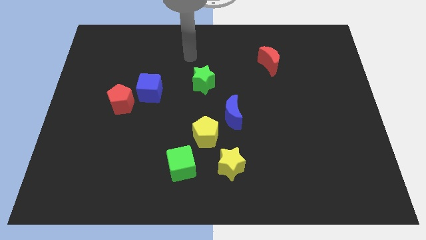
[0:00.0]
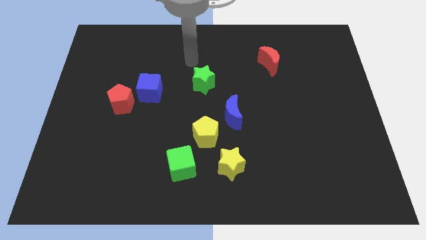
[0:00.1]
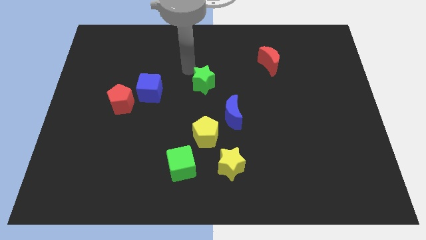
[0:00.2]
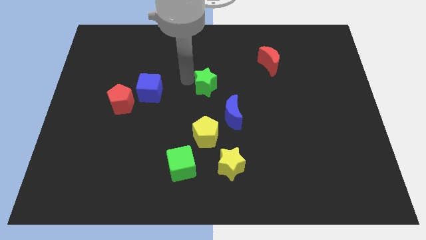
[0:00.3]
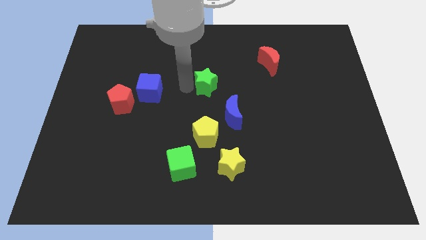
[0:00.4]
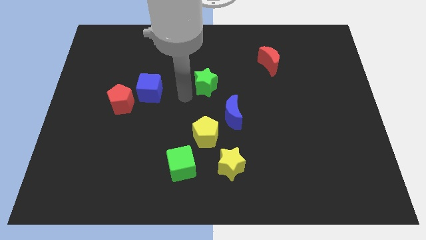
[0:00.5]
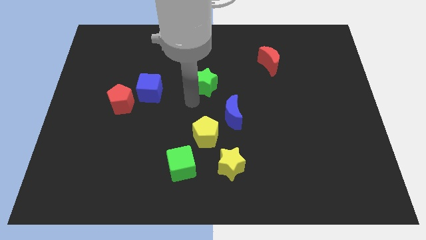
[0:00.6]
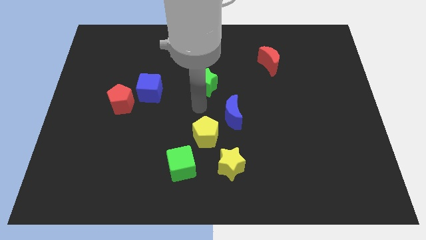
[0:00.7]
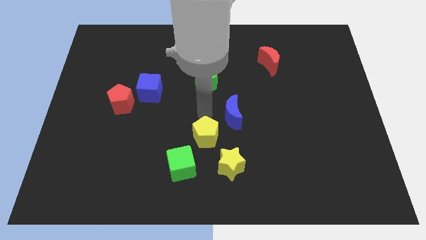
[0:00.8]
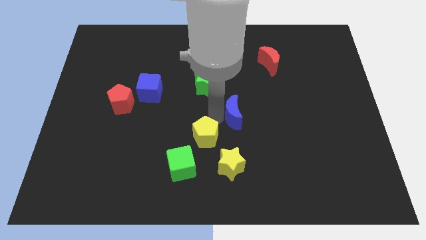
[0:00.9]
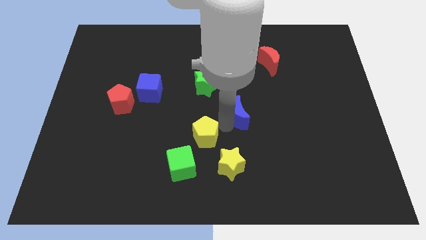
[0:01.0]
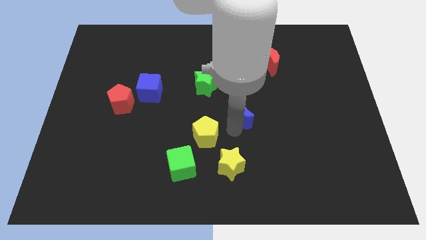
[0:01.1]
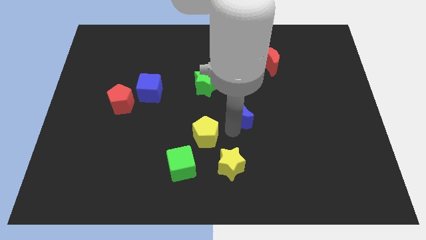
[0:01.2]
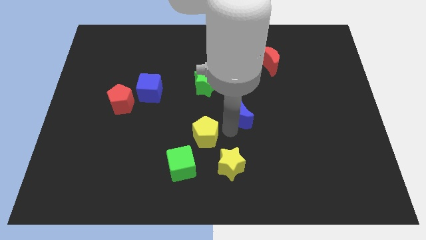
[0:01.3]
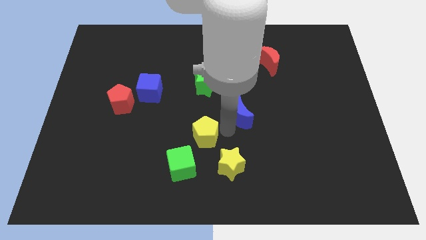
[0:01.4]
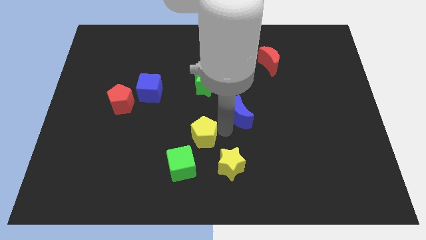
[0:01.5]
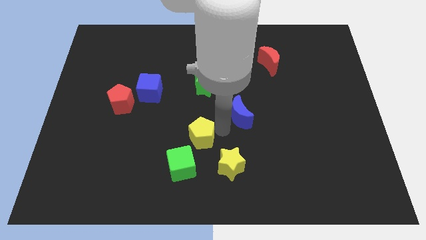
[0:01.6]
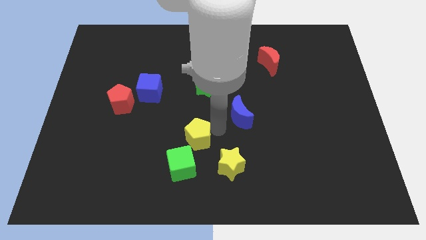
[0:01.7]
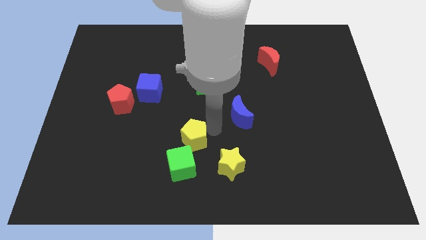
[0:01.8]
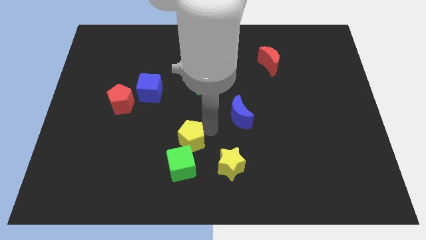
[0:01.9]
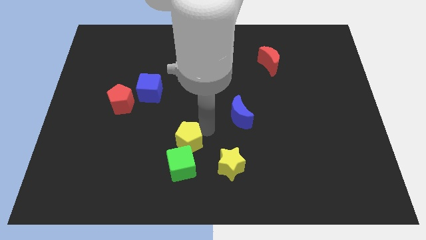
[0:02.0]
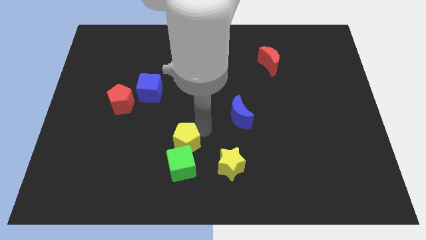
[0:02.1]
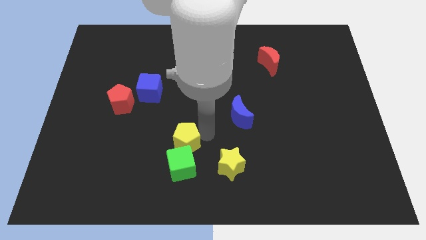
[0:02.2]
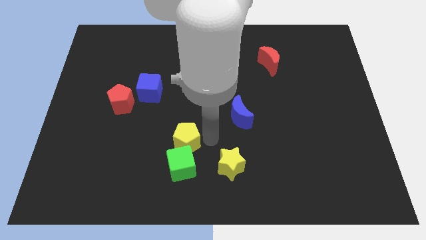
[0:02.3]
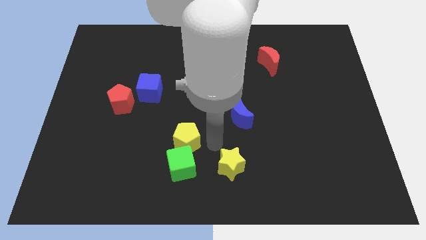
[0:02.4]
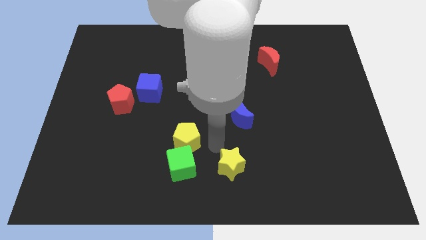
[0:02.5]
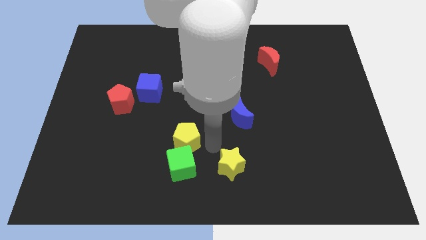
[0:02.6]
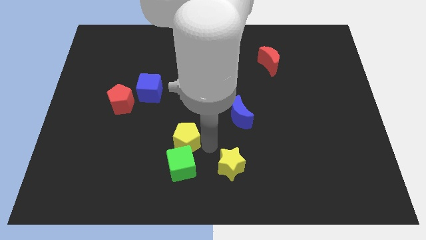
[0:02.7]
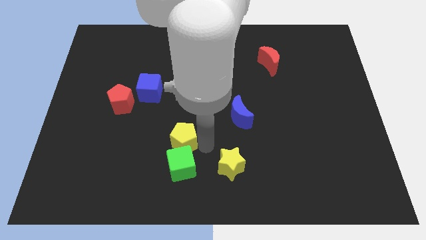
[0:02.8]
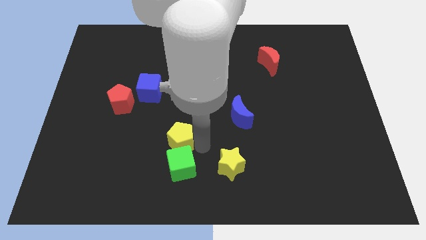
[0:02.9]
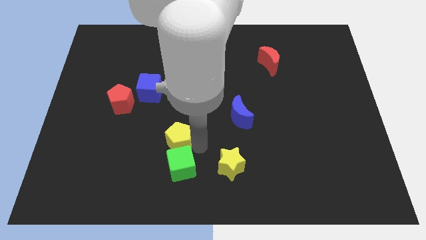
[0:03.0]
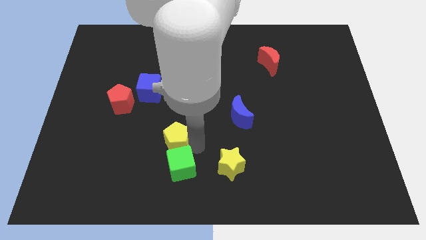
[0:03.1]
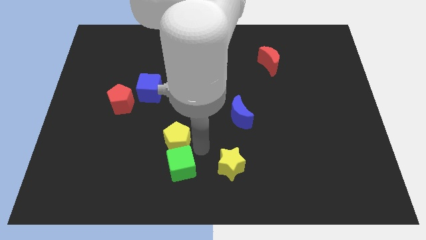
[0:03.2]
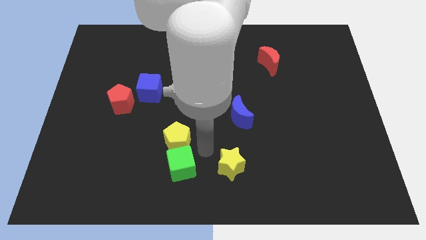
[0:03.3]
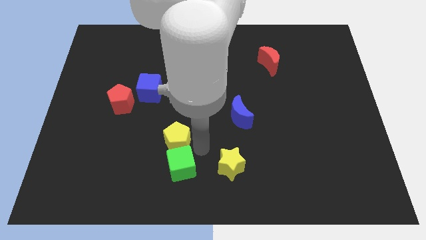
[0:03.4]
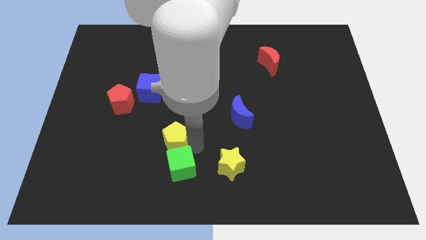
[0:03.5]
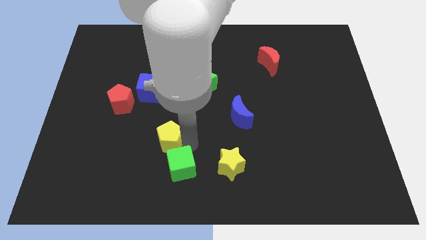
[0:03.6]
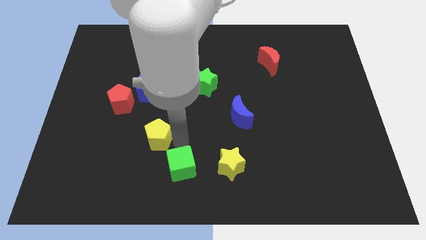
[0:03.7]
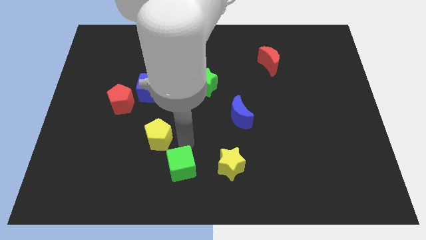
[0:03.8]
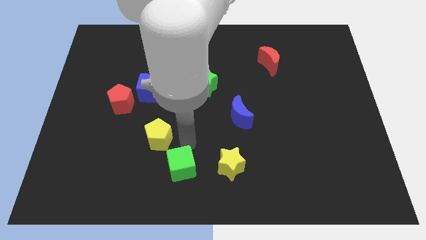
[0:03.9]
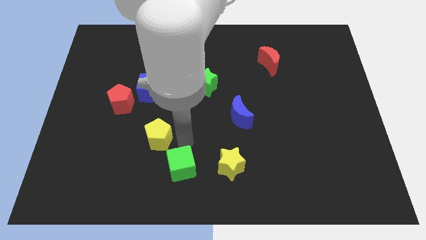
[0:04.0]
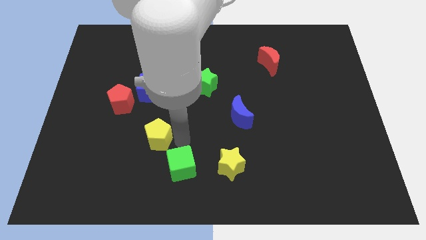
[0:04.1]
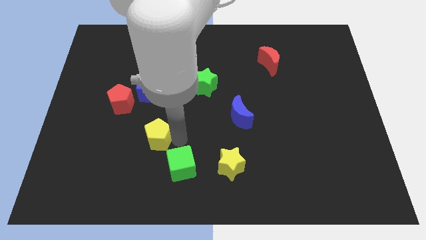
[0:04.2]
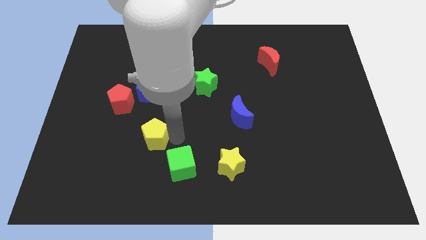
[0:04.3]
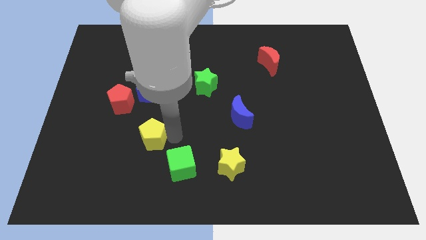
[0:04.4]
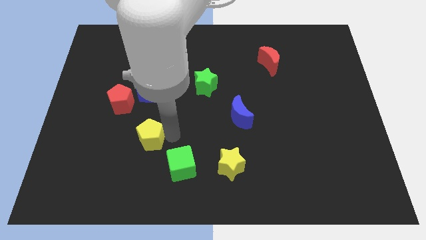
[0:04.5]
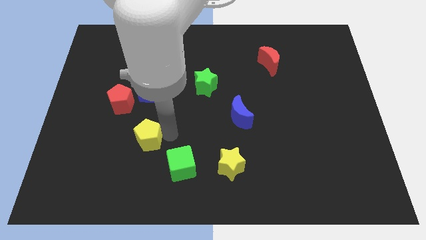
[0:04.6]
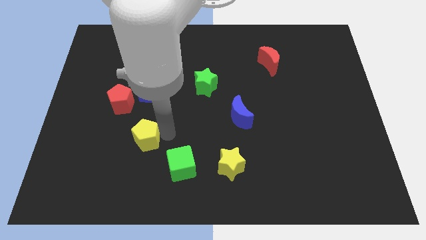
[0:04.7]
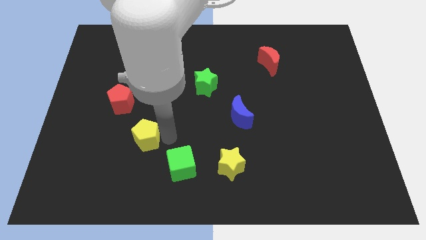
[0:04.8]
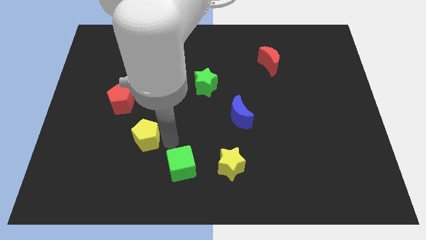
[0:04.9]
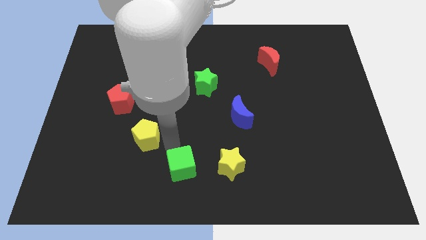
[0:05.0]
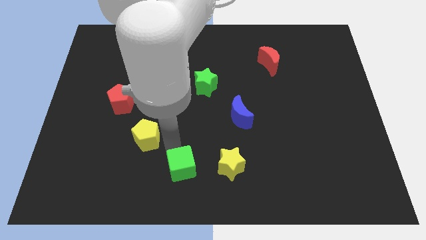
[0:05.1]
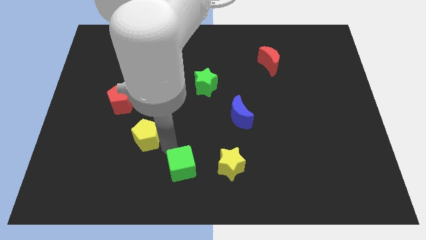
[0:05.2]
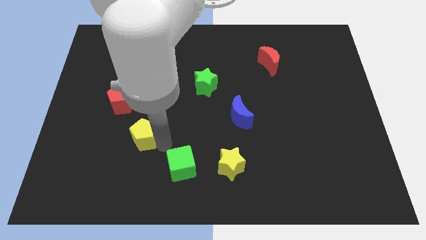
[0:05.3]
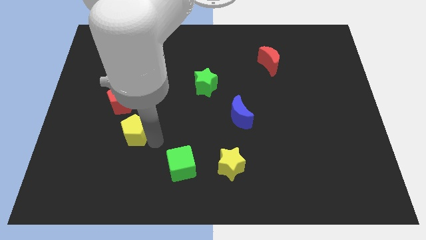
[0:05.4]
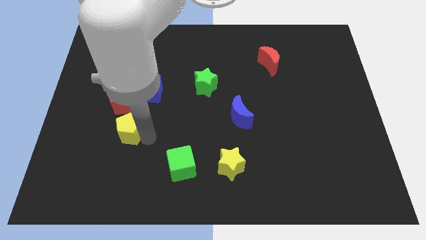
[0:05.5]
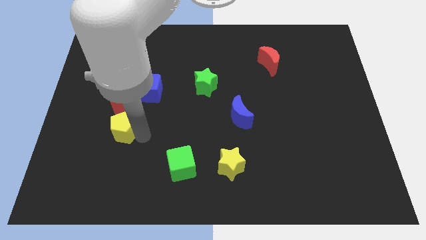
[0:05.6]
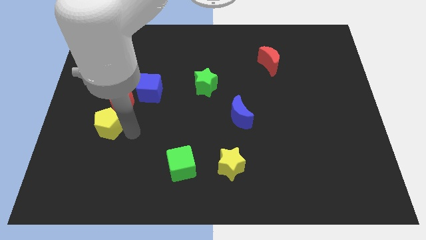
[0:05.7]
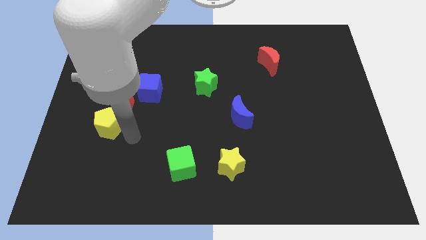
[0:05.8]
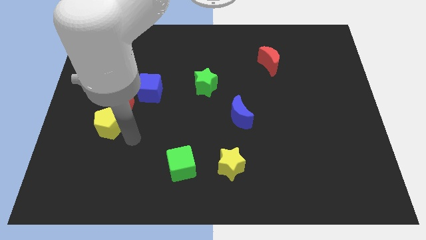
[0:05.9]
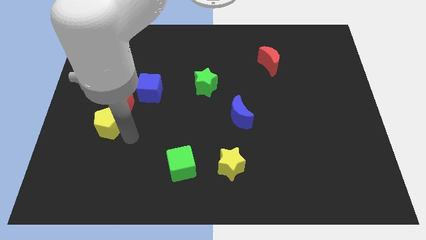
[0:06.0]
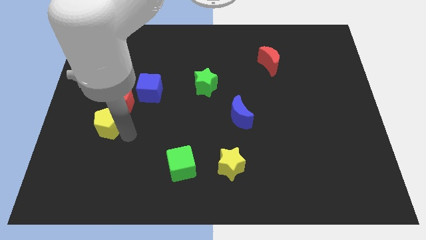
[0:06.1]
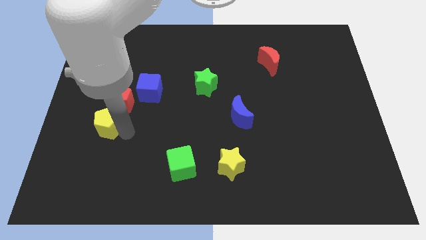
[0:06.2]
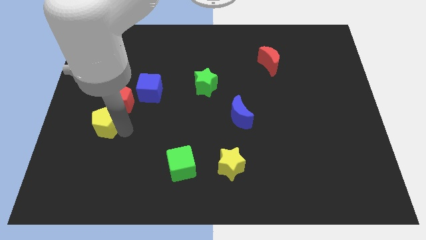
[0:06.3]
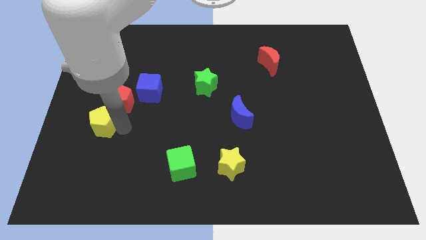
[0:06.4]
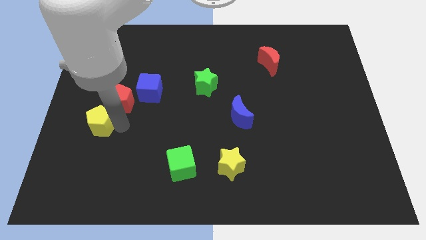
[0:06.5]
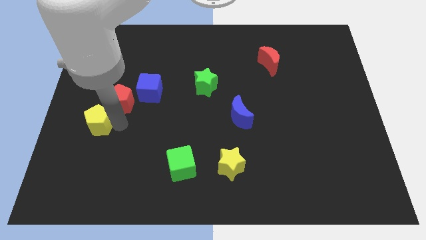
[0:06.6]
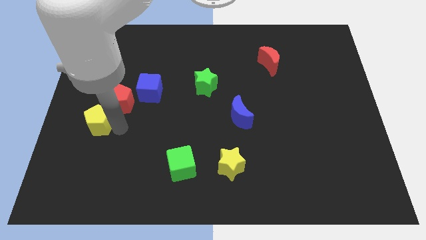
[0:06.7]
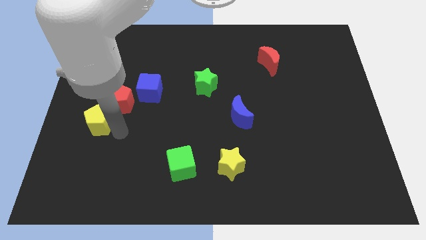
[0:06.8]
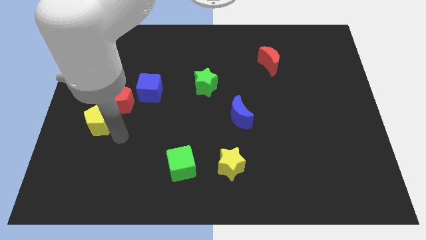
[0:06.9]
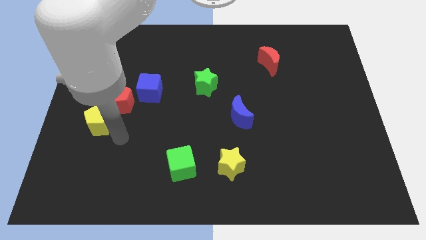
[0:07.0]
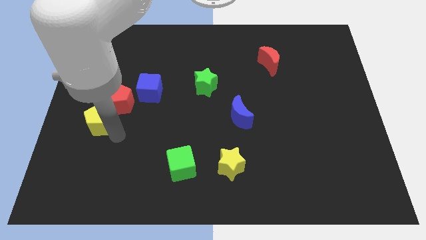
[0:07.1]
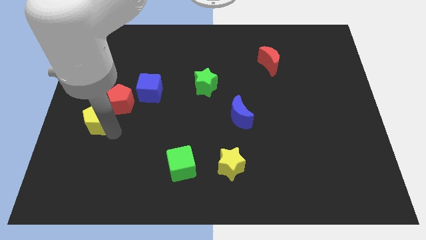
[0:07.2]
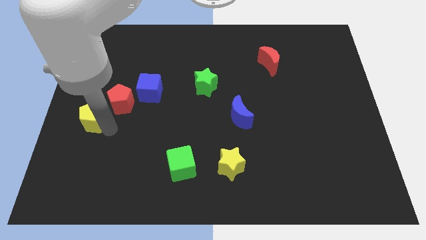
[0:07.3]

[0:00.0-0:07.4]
move the yellow pentagon to the left side
